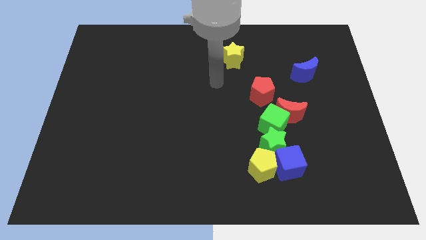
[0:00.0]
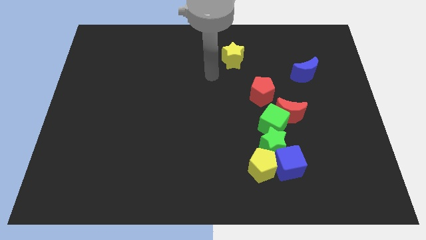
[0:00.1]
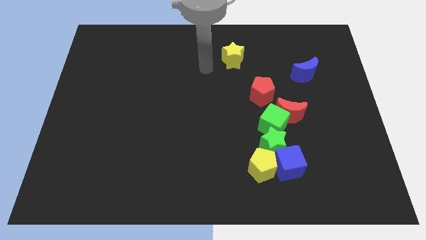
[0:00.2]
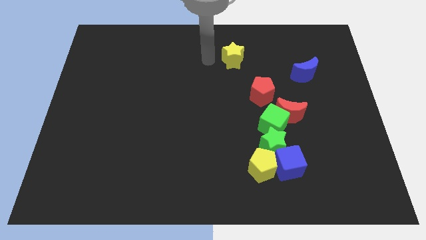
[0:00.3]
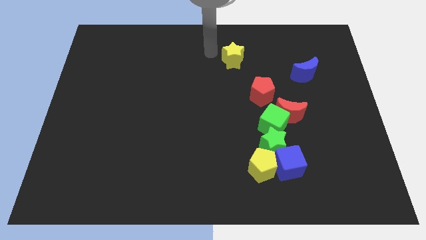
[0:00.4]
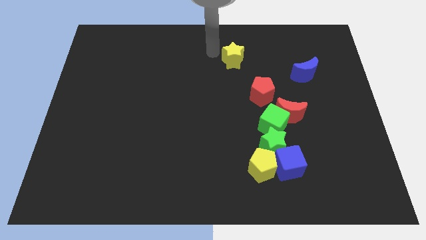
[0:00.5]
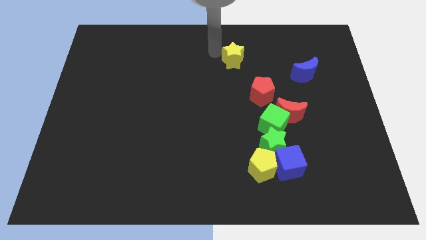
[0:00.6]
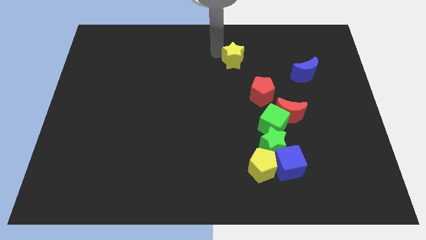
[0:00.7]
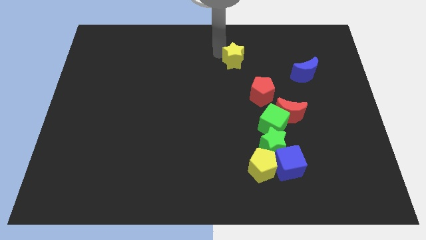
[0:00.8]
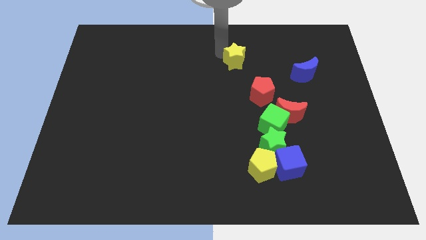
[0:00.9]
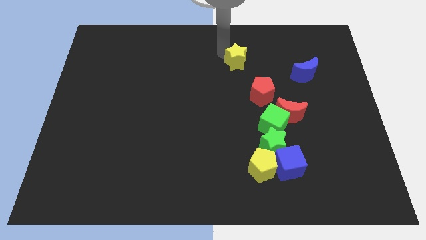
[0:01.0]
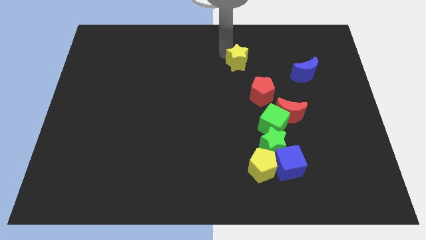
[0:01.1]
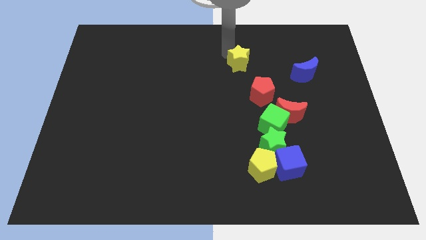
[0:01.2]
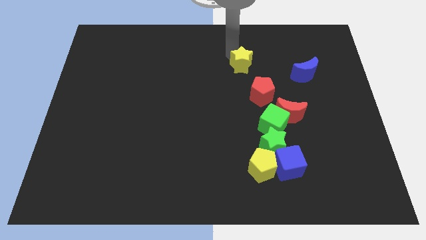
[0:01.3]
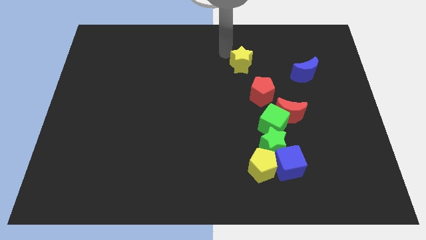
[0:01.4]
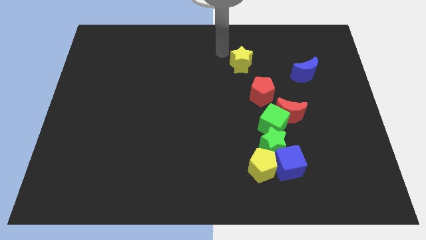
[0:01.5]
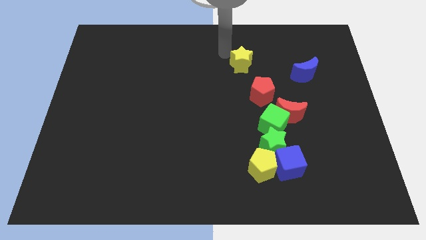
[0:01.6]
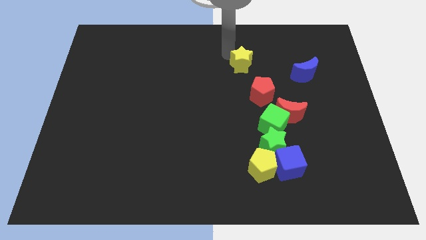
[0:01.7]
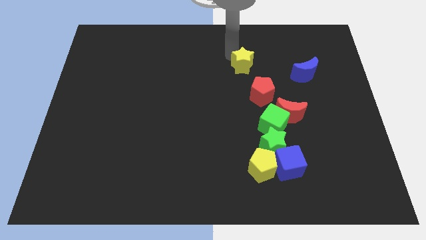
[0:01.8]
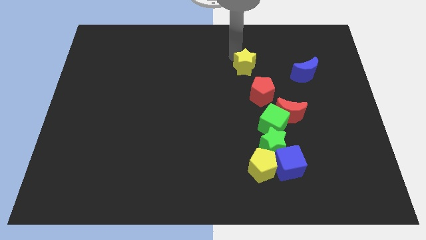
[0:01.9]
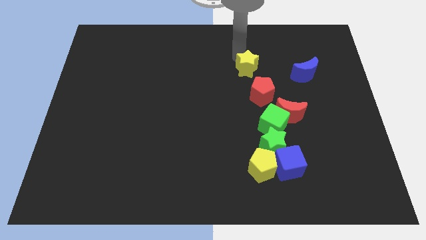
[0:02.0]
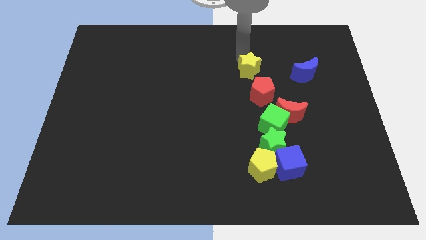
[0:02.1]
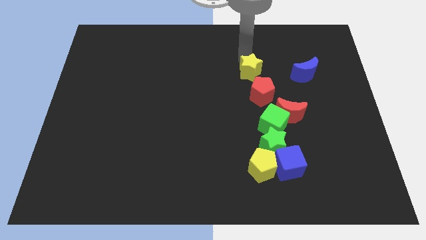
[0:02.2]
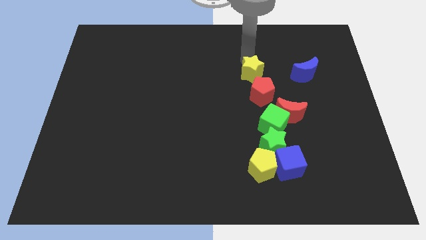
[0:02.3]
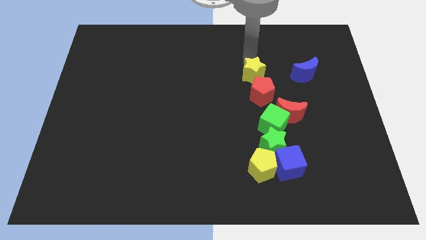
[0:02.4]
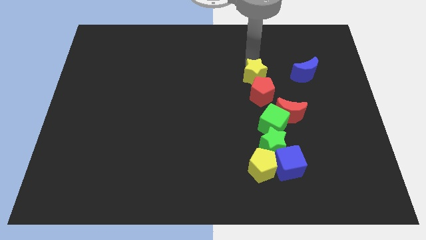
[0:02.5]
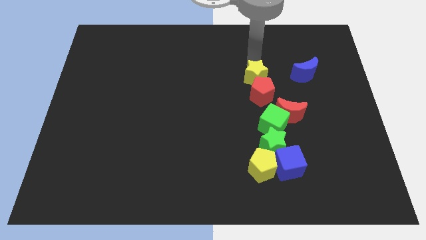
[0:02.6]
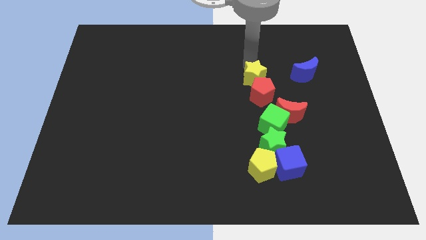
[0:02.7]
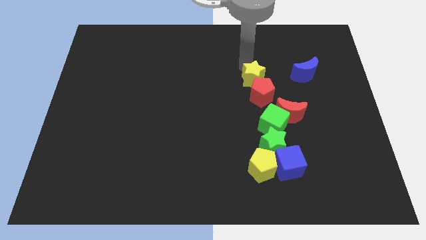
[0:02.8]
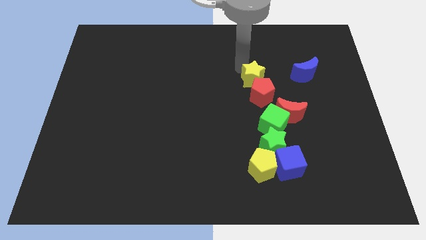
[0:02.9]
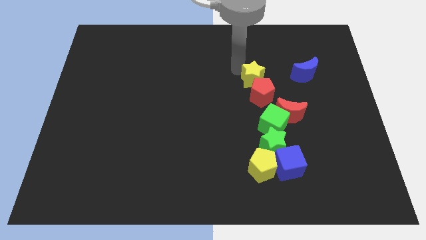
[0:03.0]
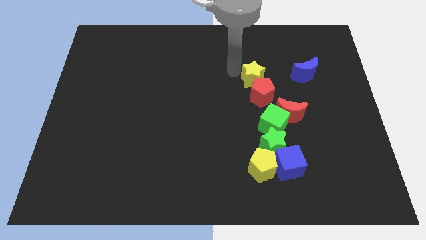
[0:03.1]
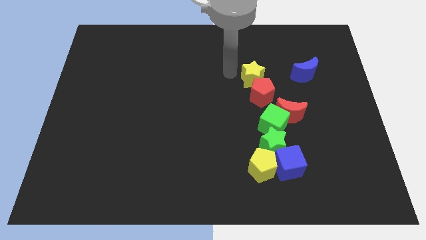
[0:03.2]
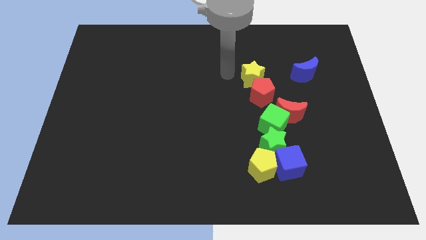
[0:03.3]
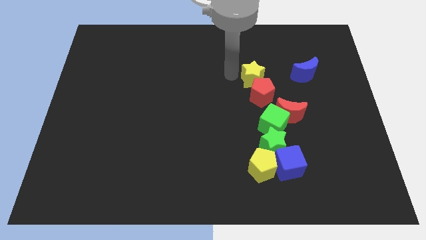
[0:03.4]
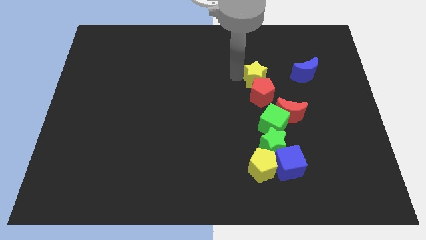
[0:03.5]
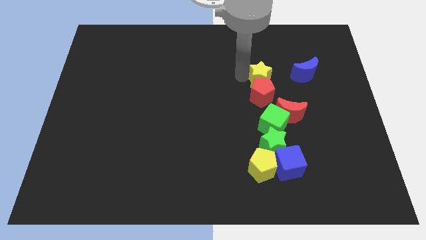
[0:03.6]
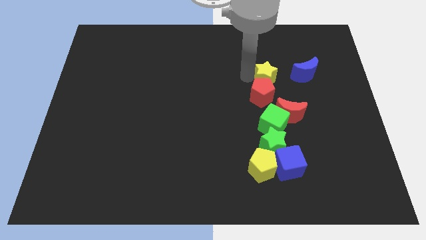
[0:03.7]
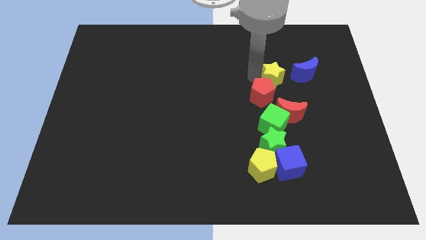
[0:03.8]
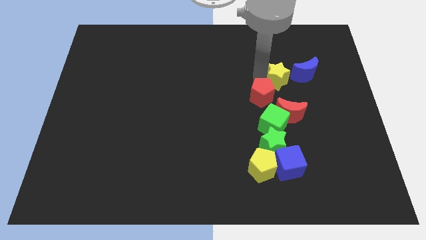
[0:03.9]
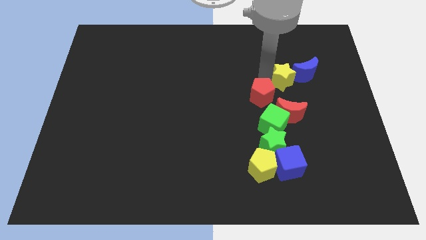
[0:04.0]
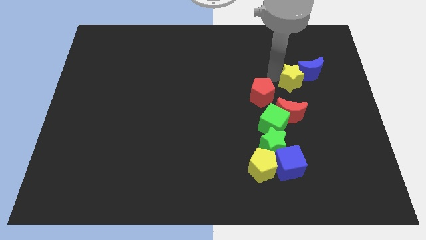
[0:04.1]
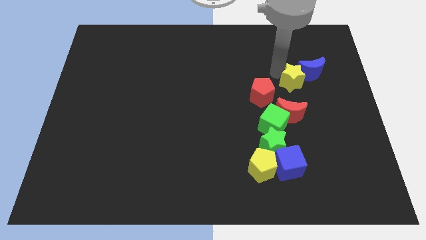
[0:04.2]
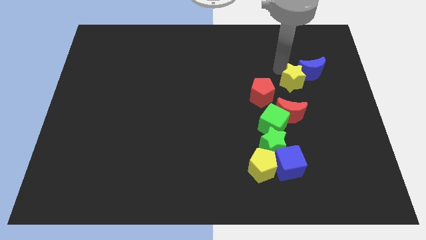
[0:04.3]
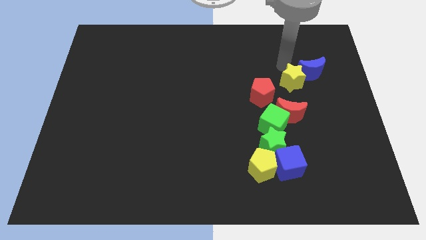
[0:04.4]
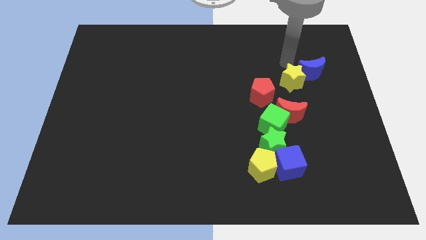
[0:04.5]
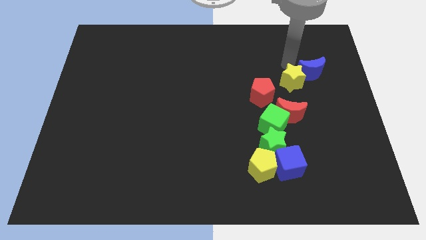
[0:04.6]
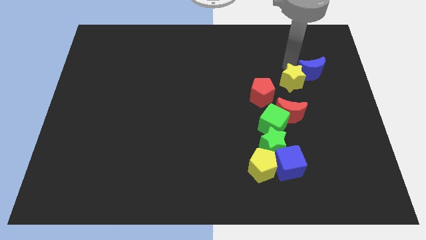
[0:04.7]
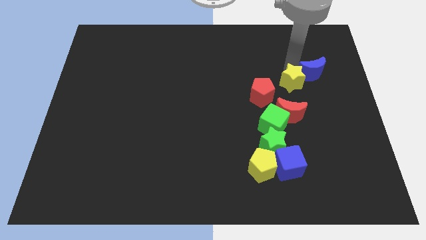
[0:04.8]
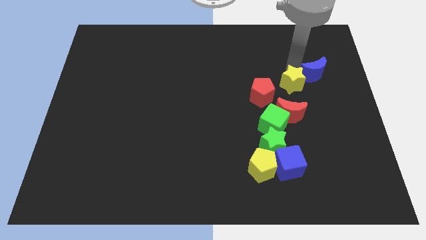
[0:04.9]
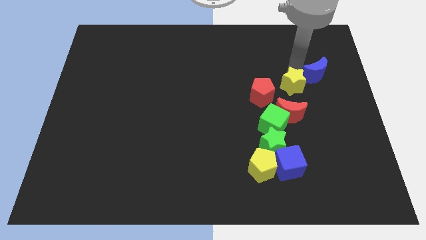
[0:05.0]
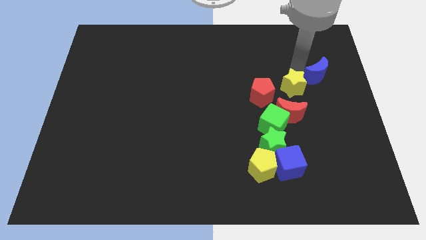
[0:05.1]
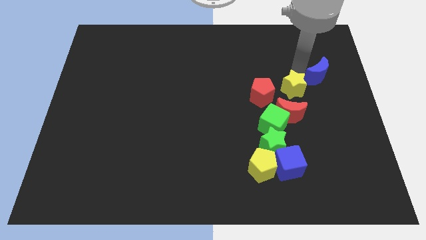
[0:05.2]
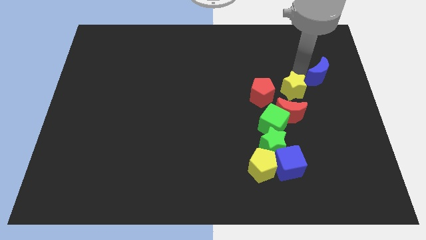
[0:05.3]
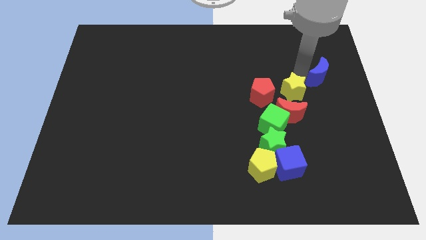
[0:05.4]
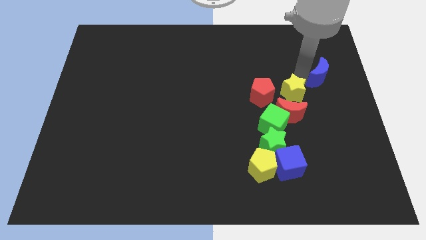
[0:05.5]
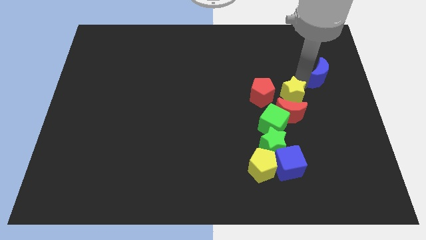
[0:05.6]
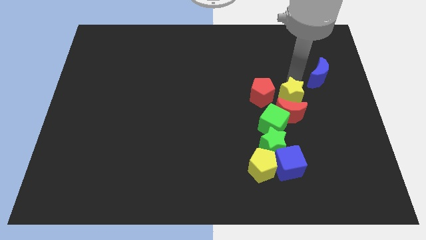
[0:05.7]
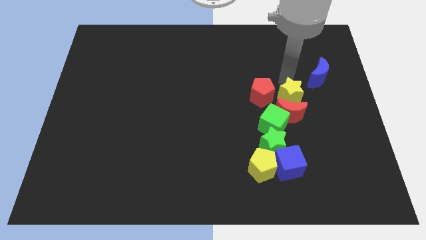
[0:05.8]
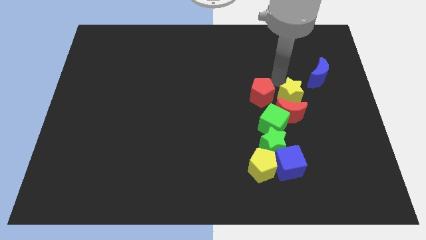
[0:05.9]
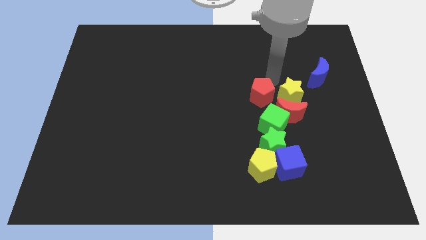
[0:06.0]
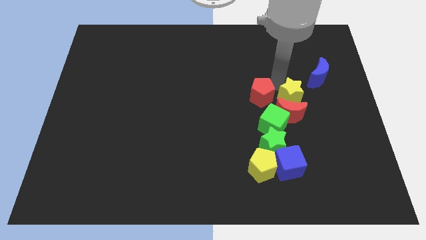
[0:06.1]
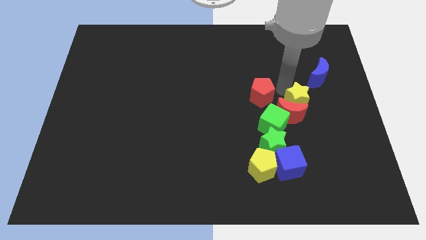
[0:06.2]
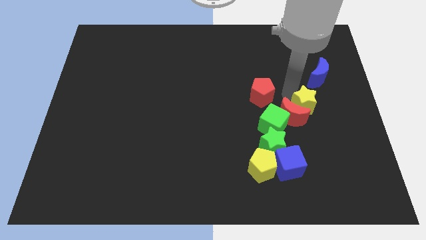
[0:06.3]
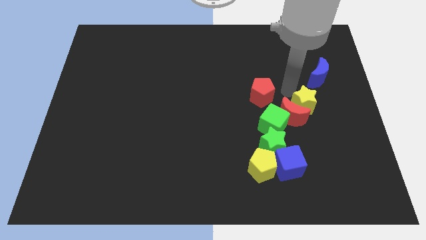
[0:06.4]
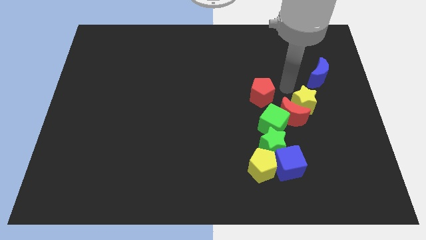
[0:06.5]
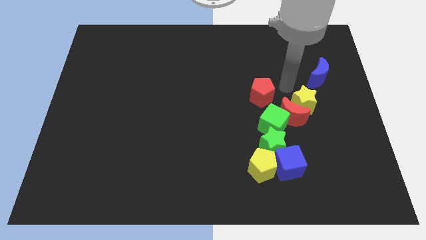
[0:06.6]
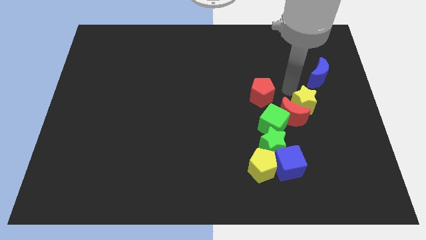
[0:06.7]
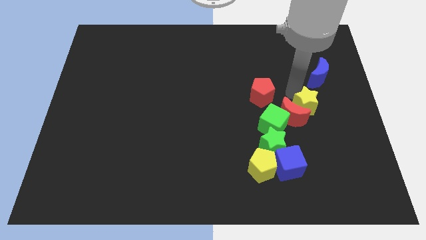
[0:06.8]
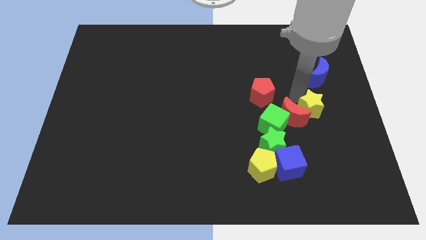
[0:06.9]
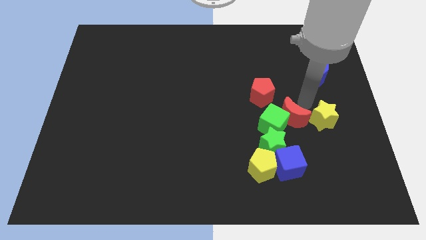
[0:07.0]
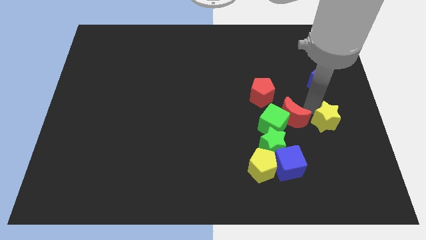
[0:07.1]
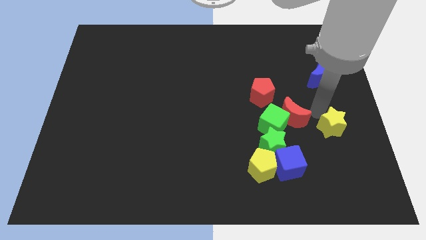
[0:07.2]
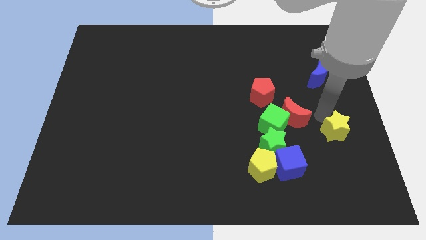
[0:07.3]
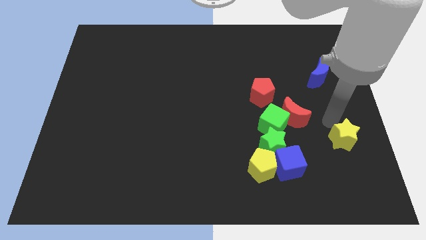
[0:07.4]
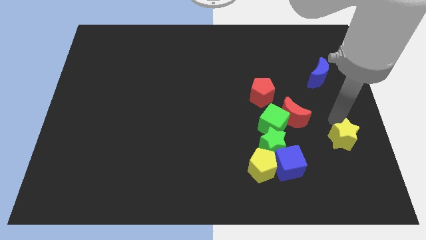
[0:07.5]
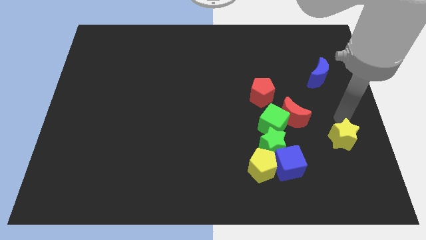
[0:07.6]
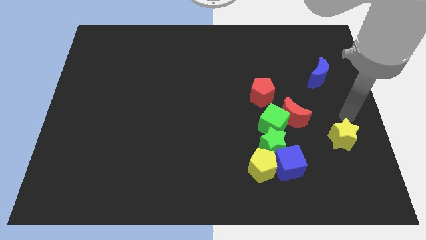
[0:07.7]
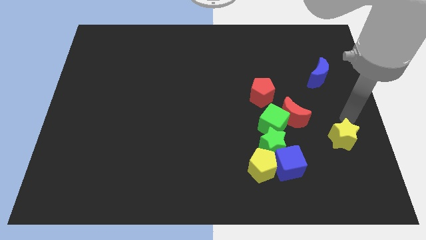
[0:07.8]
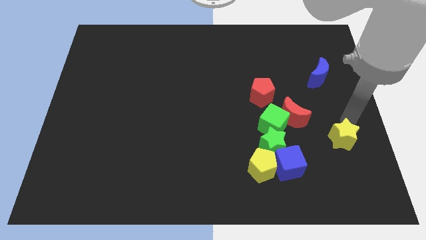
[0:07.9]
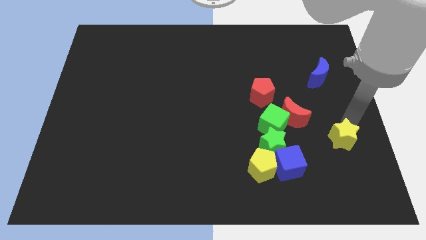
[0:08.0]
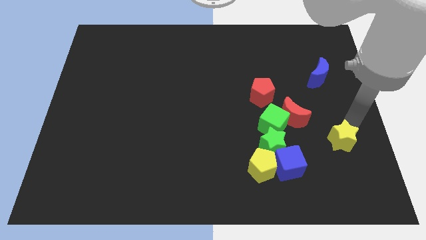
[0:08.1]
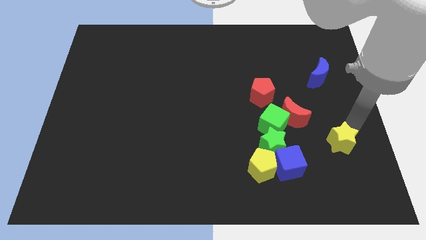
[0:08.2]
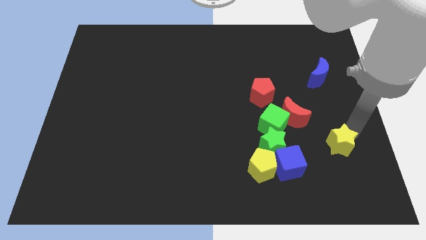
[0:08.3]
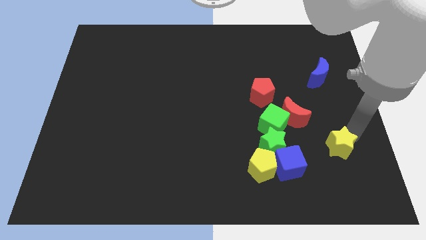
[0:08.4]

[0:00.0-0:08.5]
move the yellow star right of the blue cube
